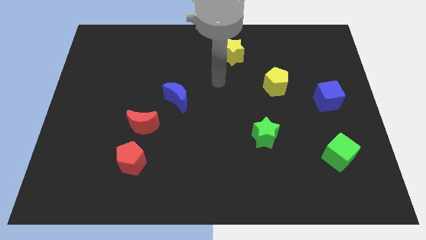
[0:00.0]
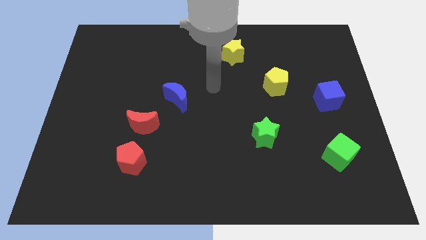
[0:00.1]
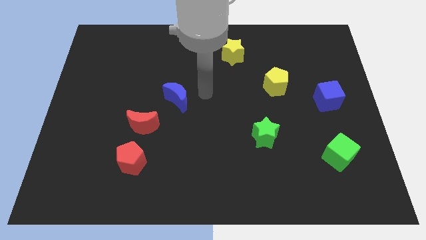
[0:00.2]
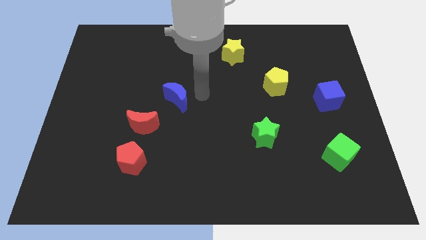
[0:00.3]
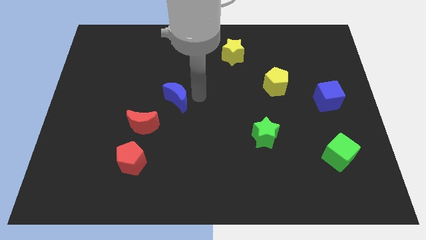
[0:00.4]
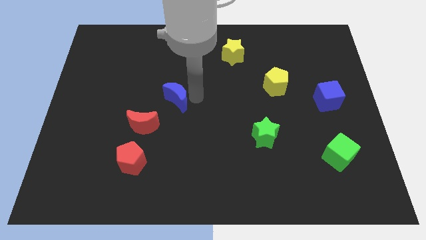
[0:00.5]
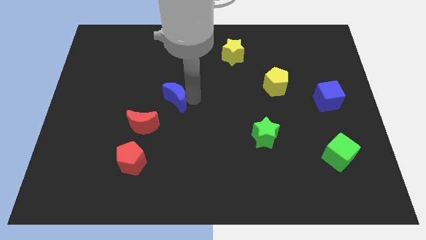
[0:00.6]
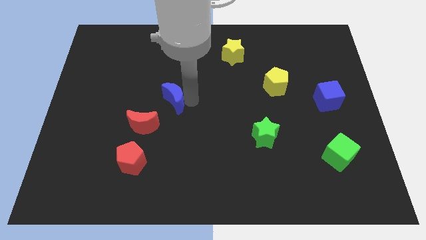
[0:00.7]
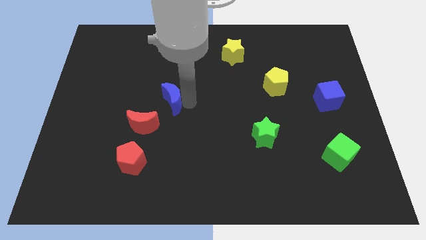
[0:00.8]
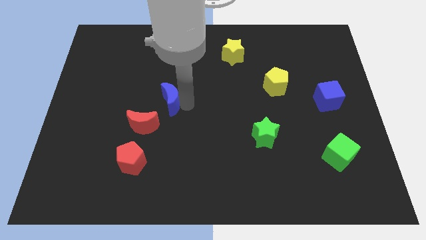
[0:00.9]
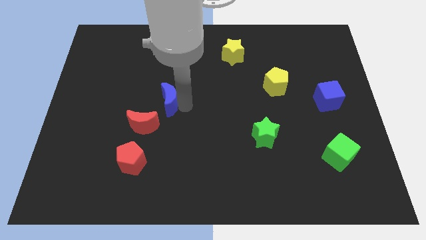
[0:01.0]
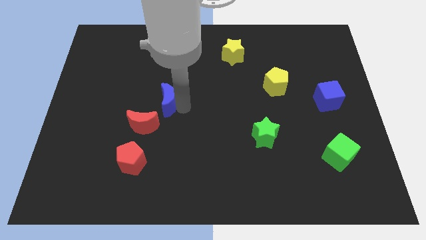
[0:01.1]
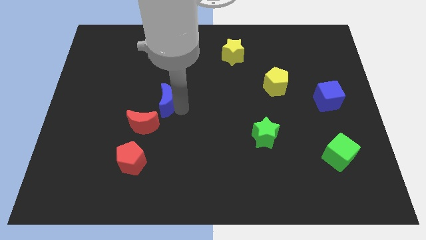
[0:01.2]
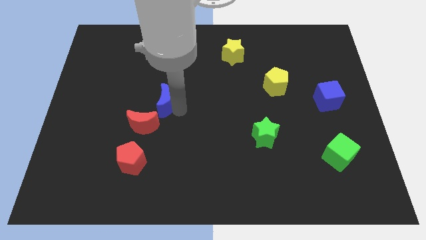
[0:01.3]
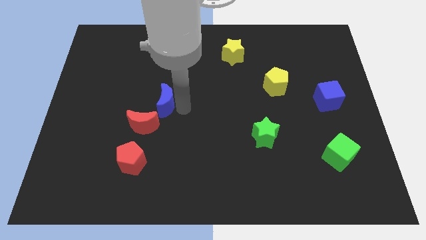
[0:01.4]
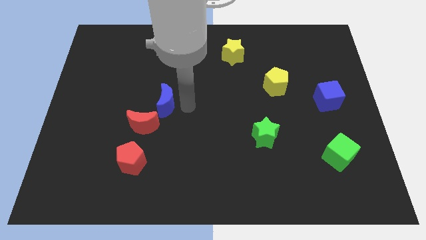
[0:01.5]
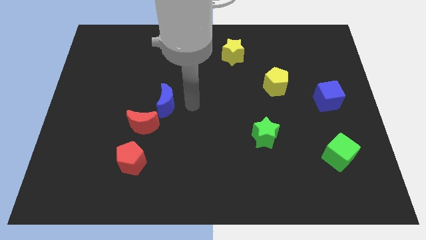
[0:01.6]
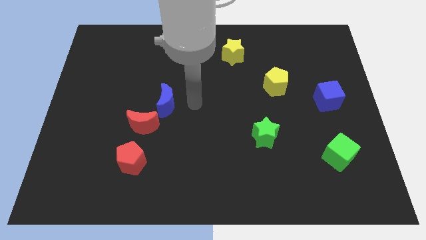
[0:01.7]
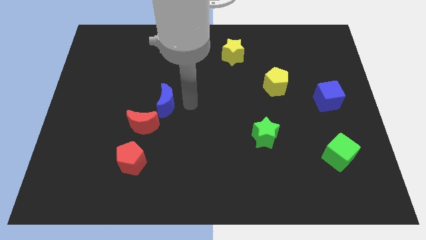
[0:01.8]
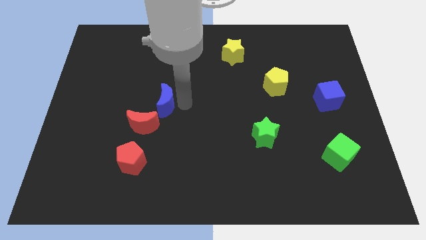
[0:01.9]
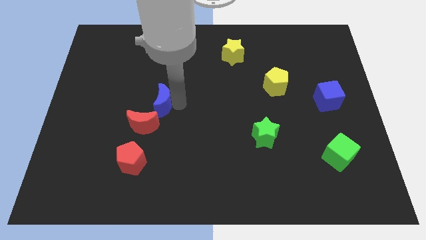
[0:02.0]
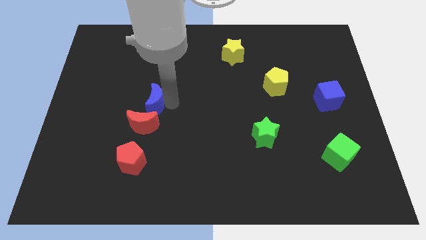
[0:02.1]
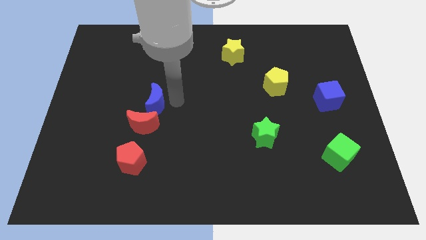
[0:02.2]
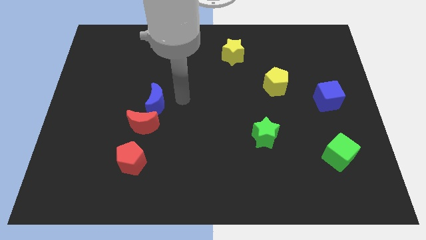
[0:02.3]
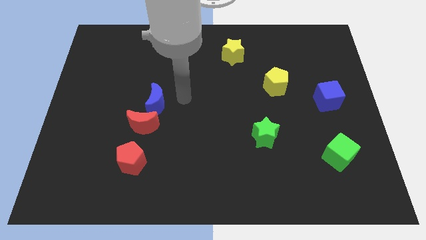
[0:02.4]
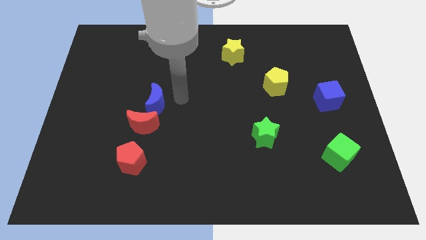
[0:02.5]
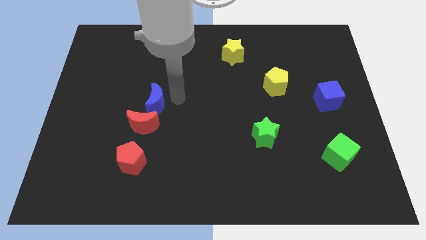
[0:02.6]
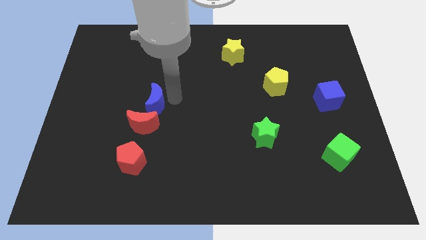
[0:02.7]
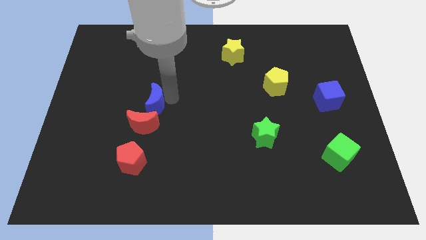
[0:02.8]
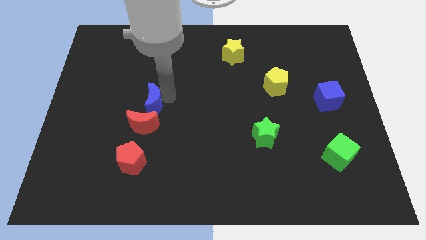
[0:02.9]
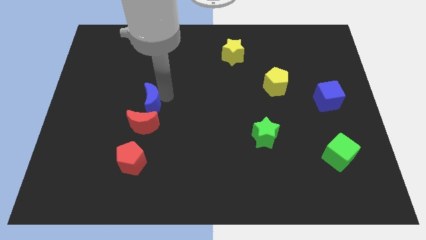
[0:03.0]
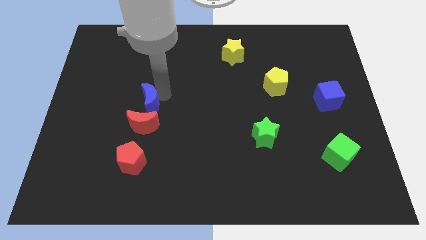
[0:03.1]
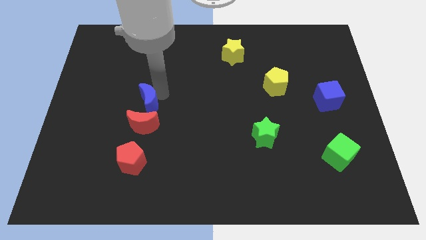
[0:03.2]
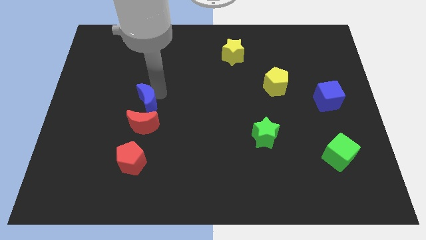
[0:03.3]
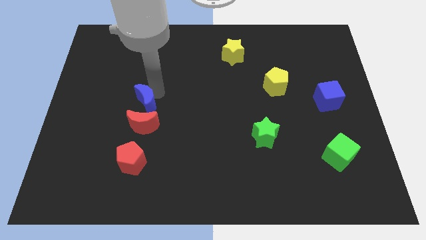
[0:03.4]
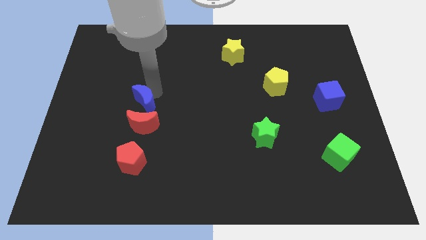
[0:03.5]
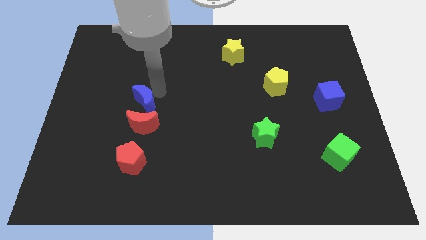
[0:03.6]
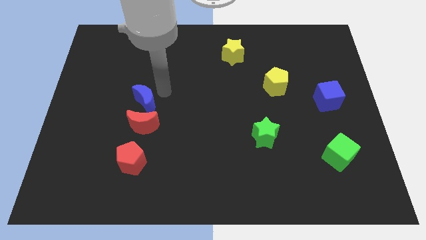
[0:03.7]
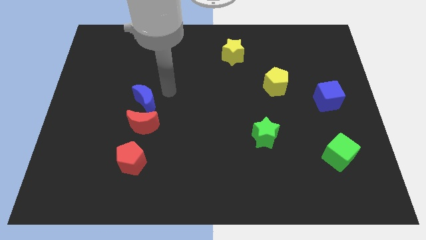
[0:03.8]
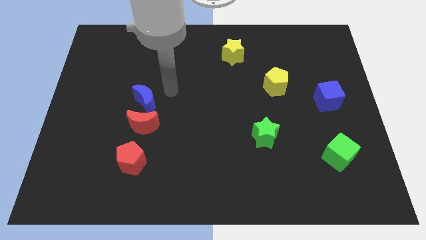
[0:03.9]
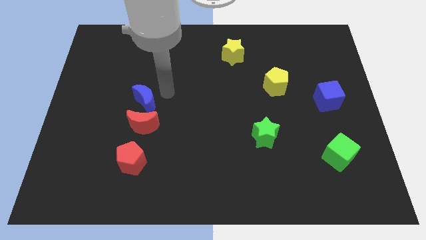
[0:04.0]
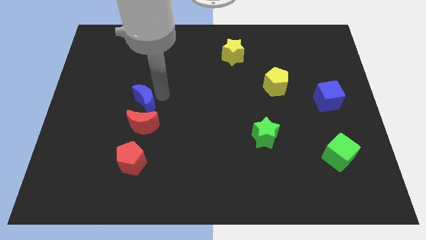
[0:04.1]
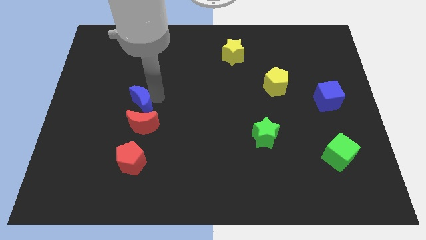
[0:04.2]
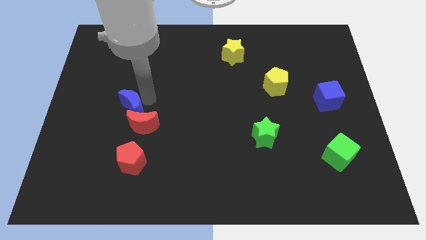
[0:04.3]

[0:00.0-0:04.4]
slide the blue moon slightly down and to the left

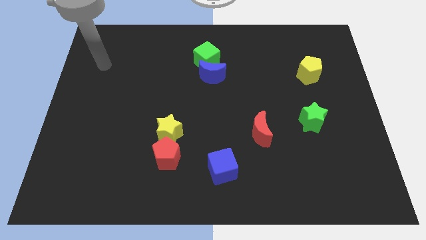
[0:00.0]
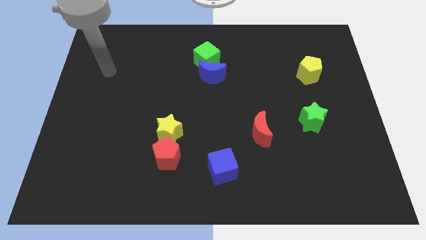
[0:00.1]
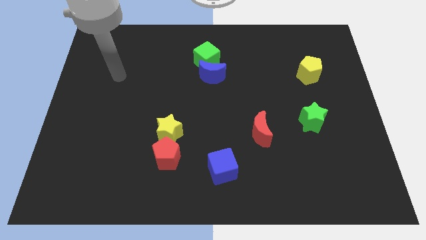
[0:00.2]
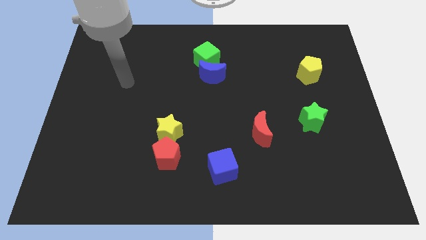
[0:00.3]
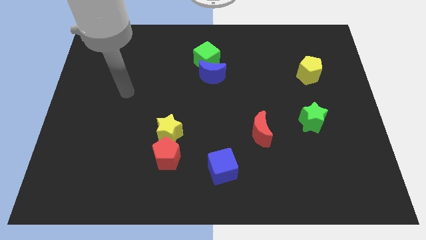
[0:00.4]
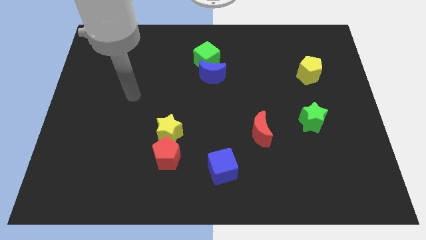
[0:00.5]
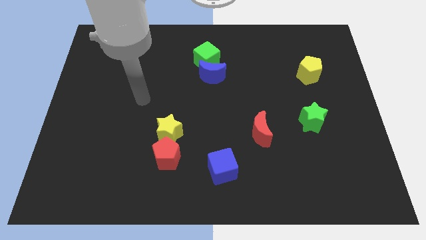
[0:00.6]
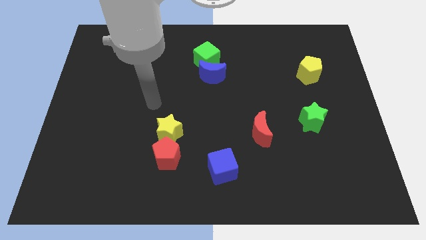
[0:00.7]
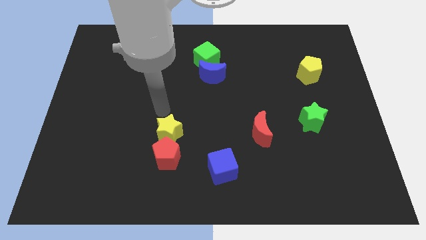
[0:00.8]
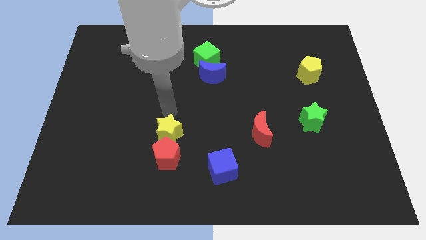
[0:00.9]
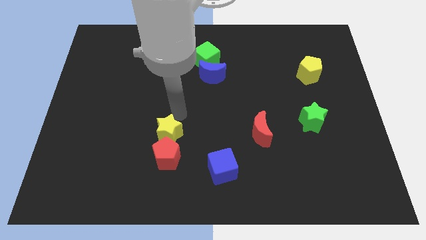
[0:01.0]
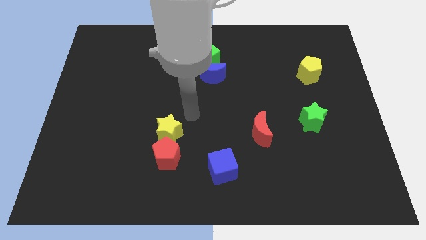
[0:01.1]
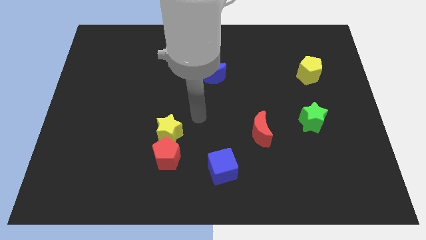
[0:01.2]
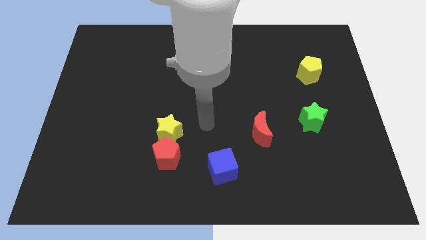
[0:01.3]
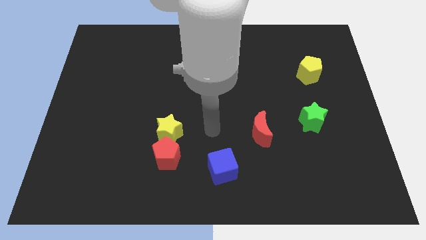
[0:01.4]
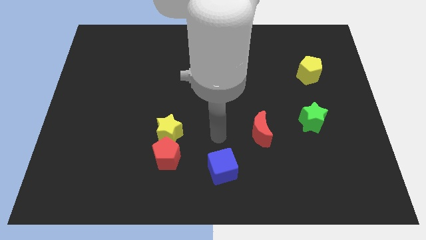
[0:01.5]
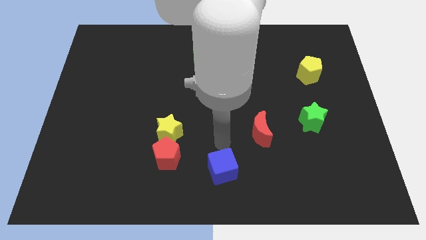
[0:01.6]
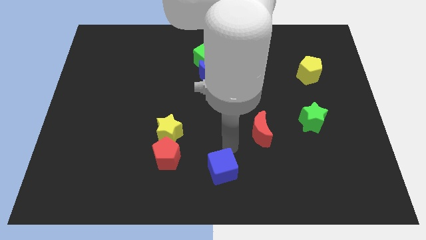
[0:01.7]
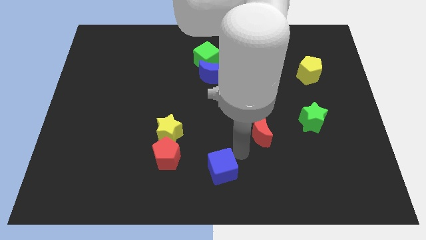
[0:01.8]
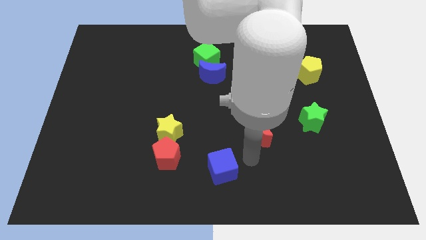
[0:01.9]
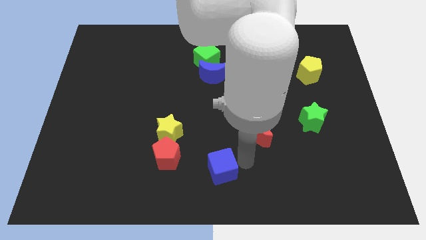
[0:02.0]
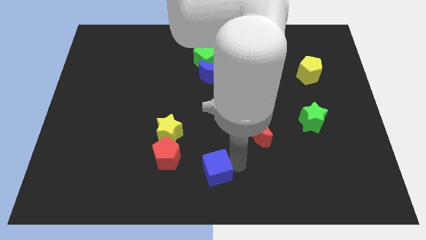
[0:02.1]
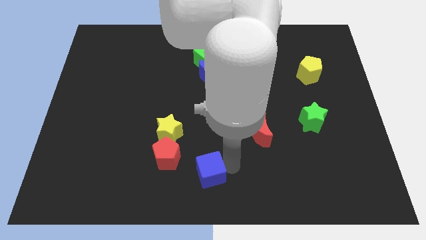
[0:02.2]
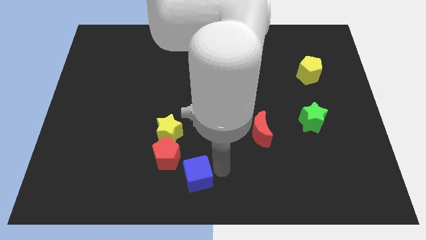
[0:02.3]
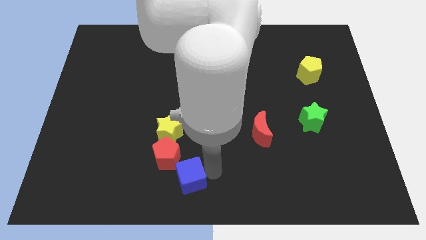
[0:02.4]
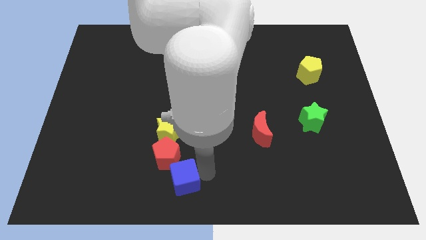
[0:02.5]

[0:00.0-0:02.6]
slide the blue cube a bit left

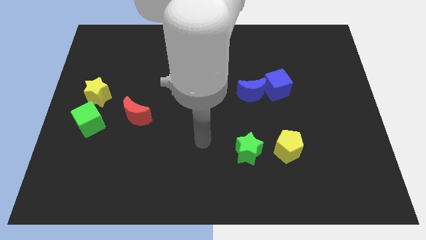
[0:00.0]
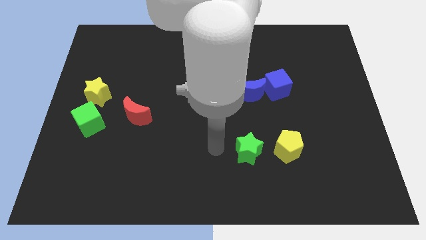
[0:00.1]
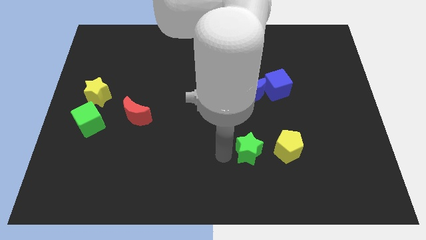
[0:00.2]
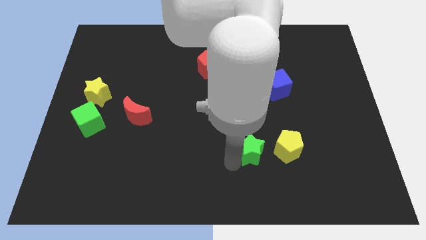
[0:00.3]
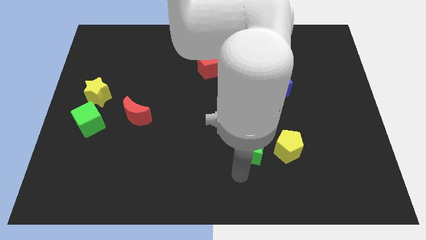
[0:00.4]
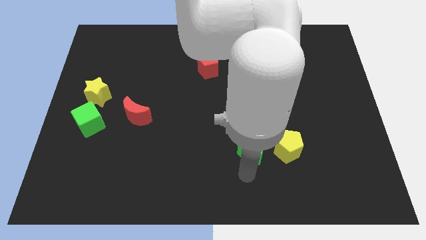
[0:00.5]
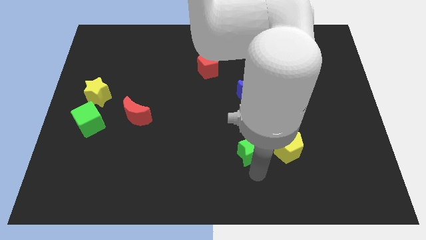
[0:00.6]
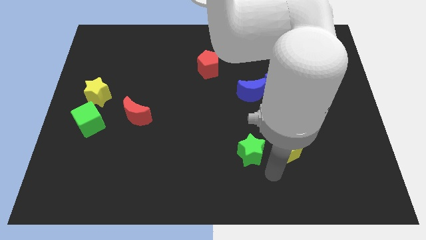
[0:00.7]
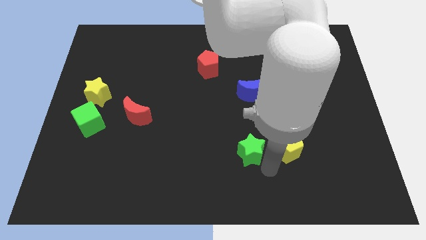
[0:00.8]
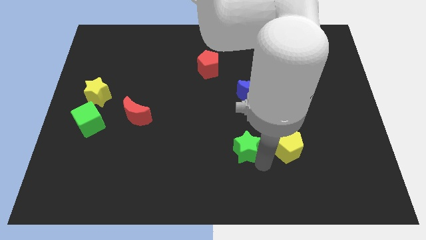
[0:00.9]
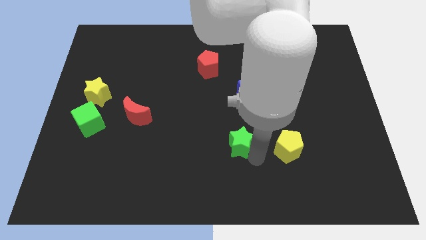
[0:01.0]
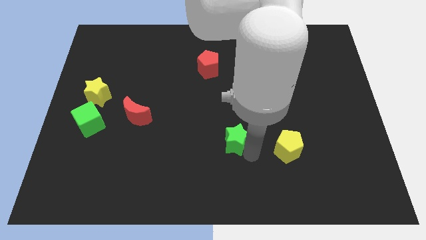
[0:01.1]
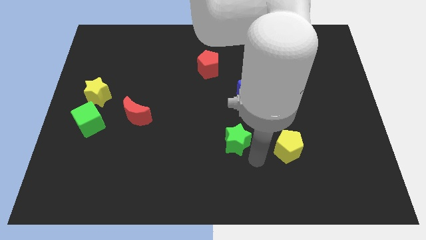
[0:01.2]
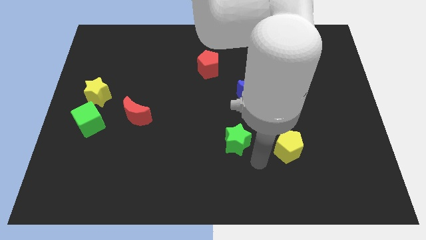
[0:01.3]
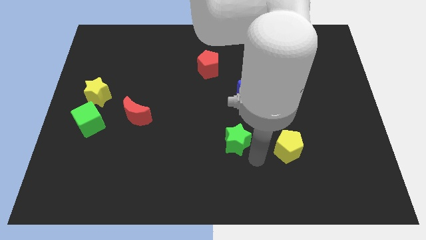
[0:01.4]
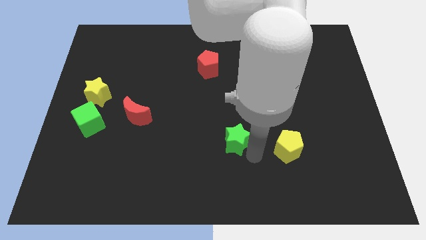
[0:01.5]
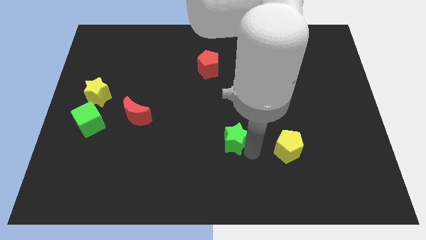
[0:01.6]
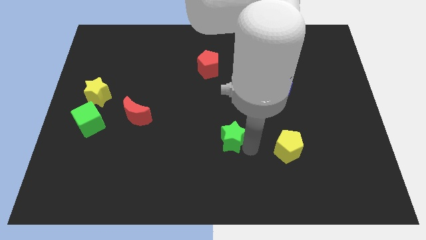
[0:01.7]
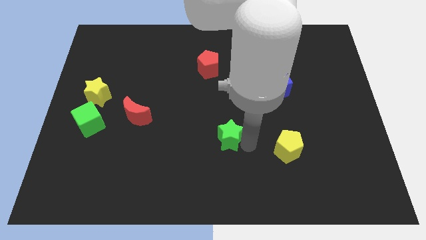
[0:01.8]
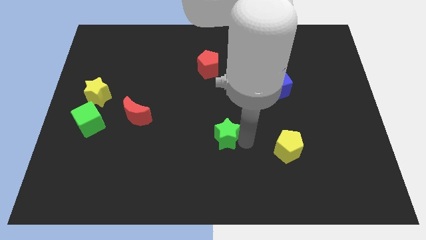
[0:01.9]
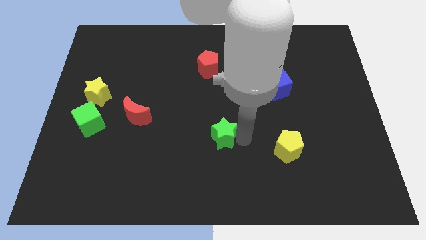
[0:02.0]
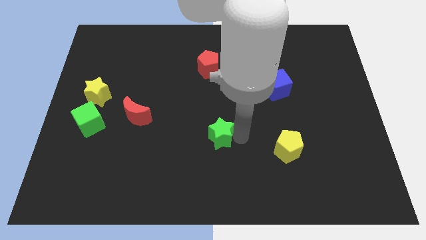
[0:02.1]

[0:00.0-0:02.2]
slightly slide the green star up and then left
